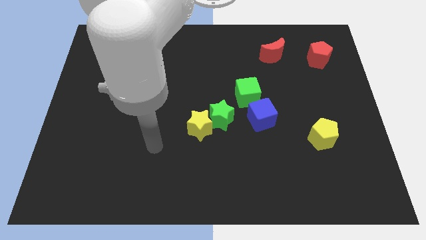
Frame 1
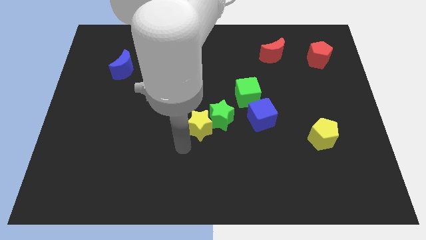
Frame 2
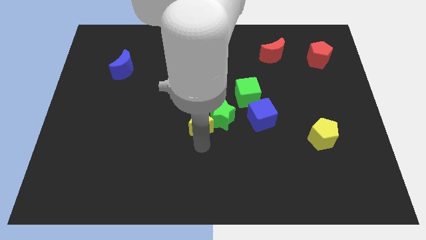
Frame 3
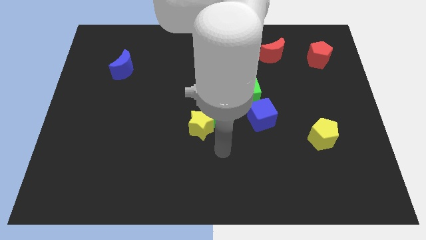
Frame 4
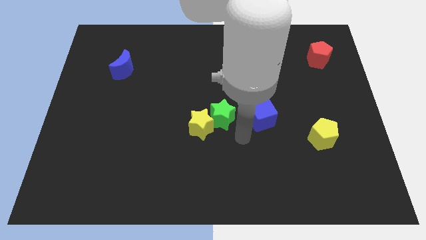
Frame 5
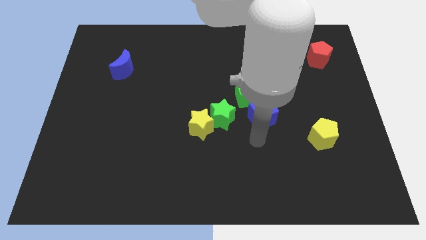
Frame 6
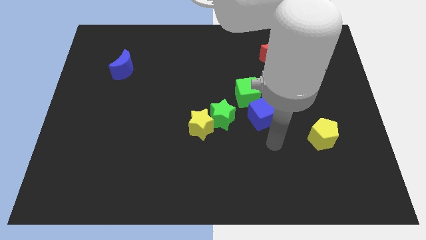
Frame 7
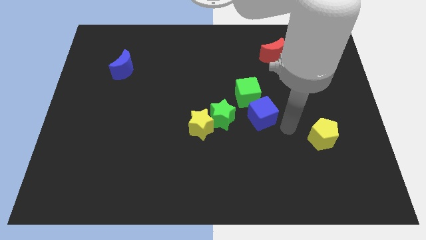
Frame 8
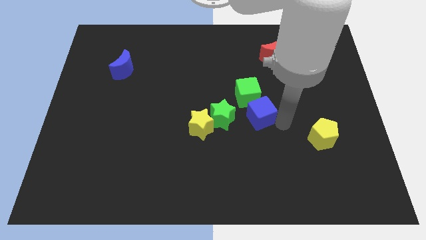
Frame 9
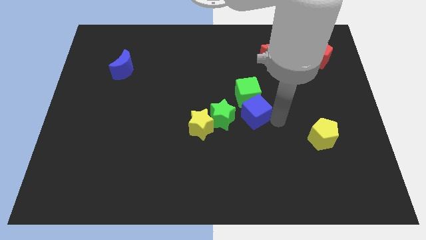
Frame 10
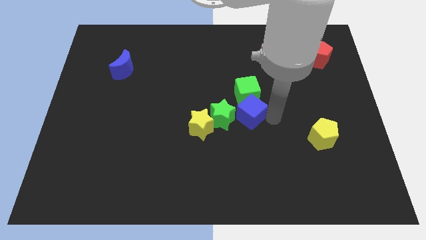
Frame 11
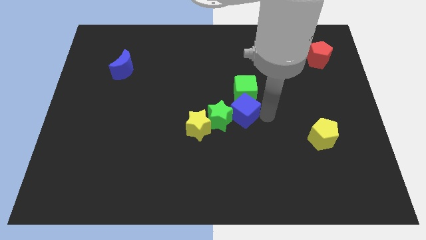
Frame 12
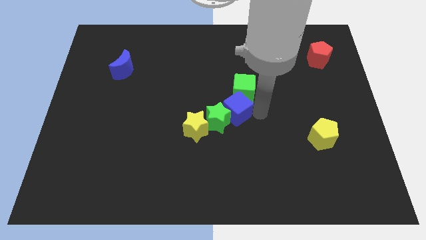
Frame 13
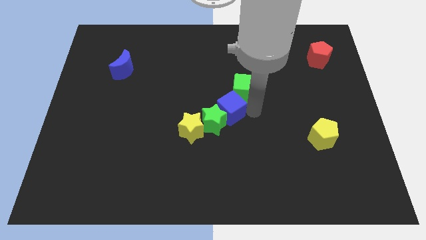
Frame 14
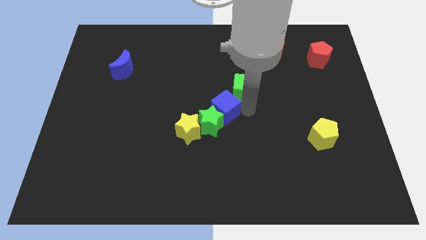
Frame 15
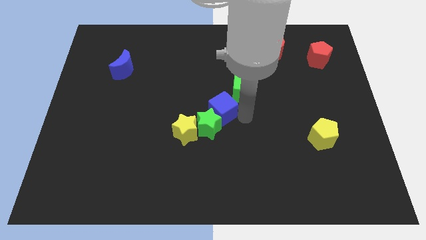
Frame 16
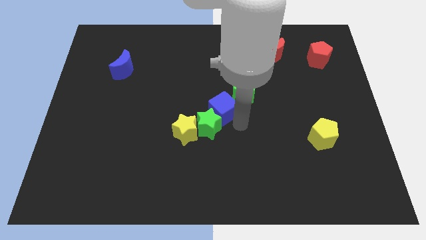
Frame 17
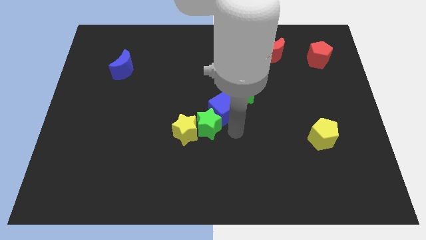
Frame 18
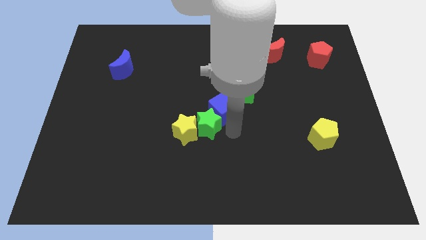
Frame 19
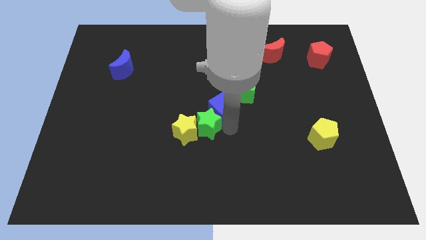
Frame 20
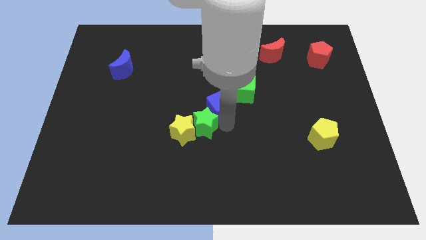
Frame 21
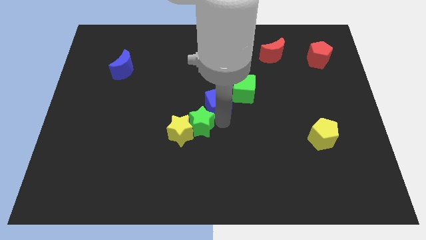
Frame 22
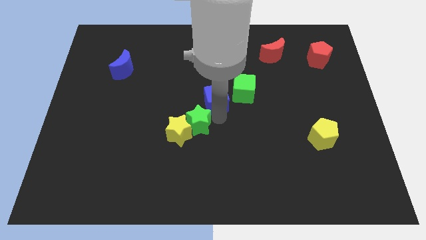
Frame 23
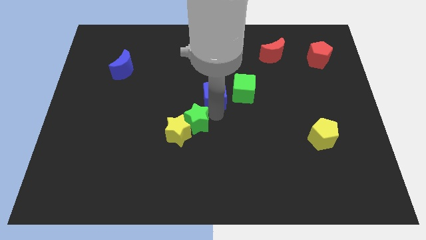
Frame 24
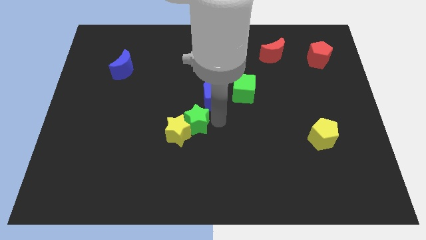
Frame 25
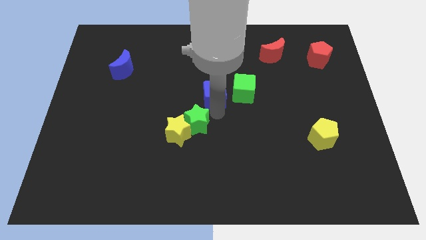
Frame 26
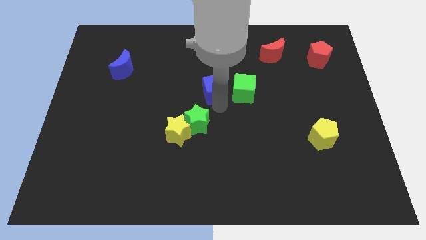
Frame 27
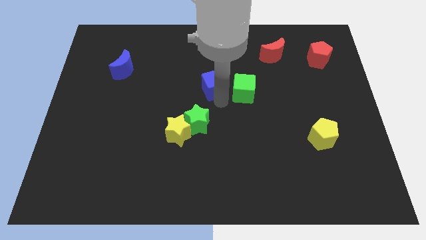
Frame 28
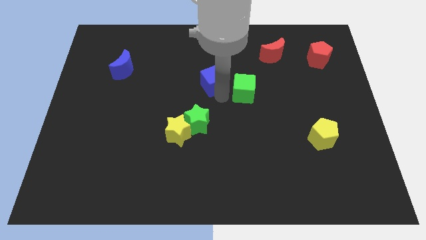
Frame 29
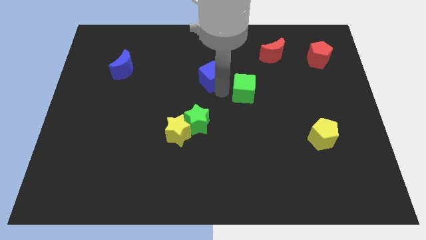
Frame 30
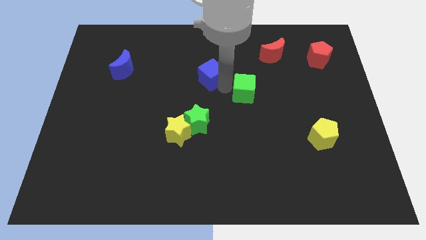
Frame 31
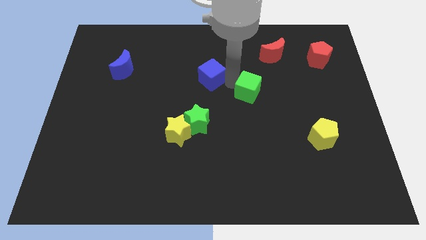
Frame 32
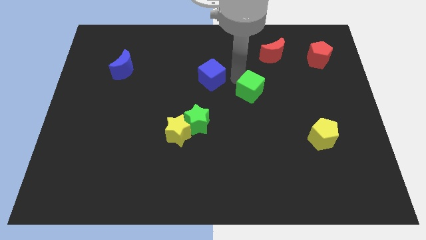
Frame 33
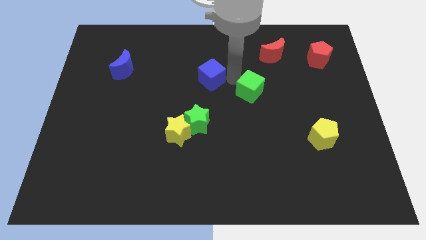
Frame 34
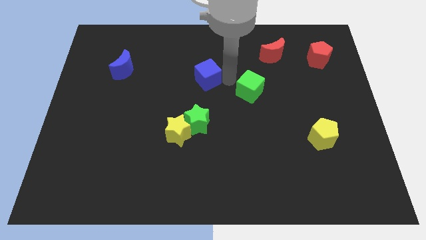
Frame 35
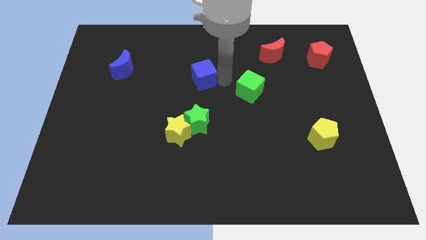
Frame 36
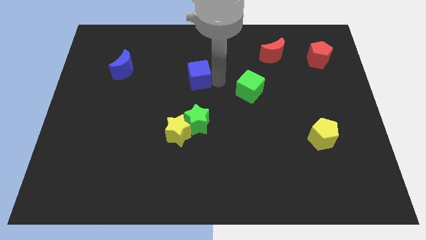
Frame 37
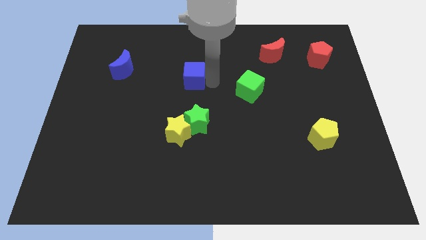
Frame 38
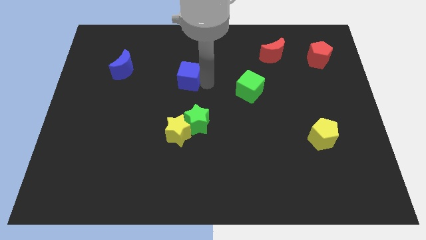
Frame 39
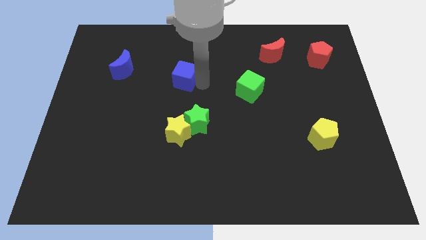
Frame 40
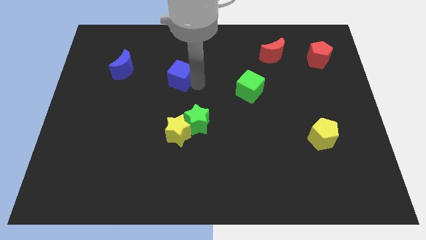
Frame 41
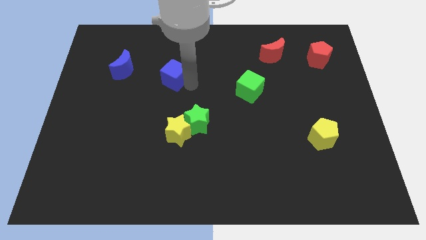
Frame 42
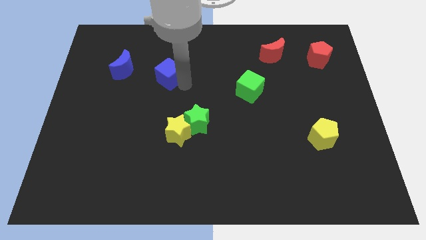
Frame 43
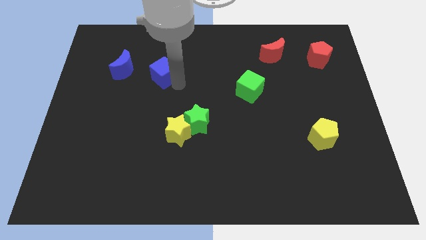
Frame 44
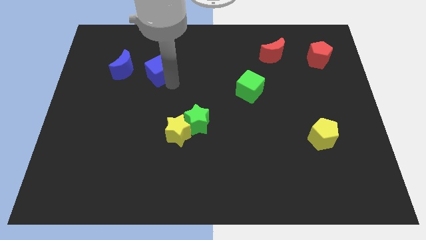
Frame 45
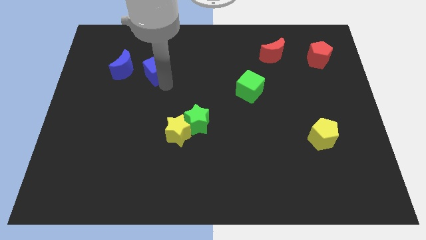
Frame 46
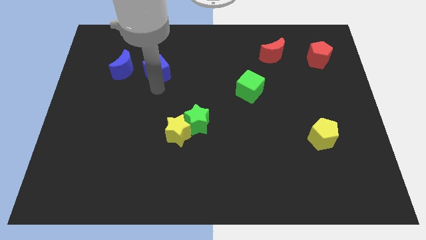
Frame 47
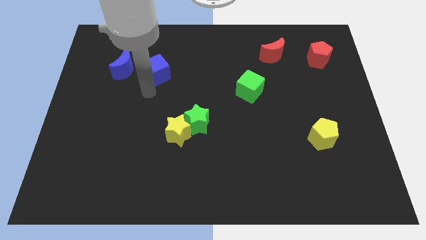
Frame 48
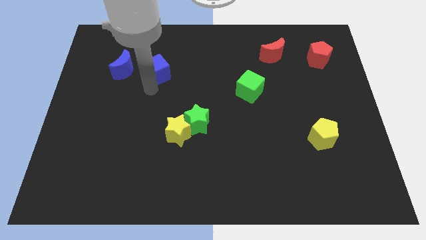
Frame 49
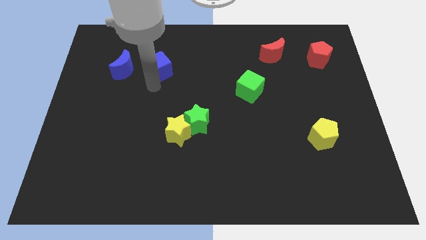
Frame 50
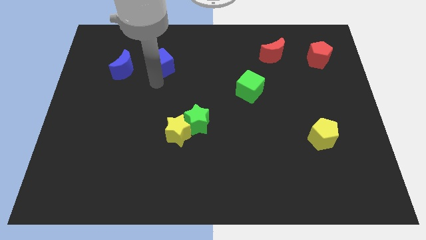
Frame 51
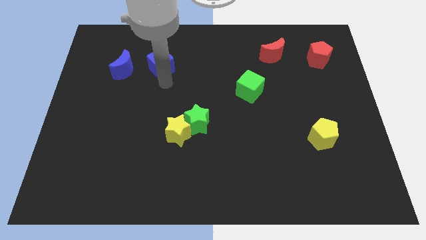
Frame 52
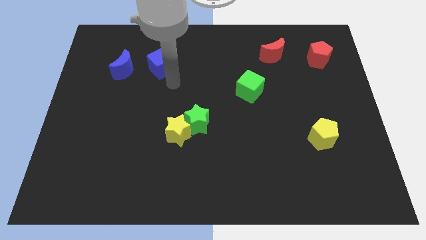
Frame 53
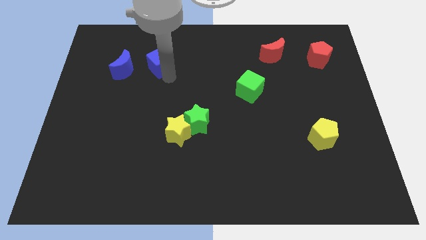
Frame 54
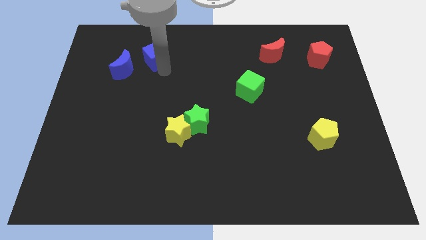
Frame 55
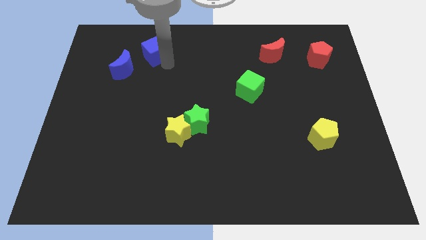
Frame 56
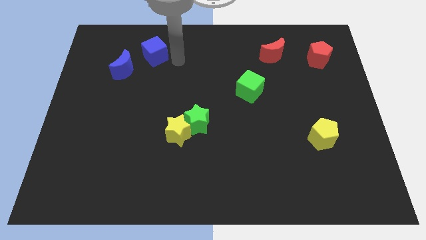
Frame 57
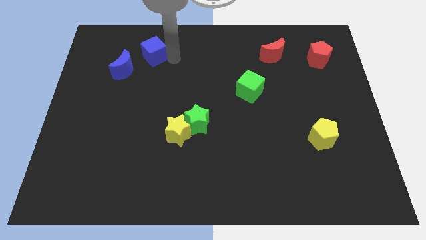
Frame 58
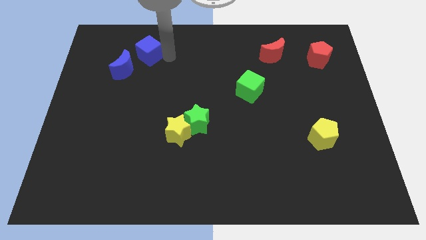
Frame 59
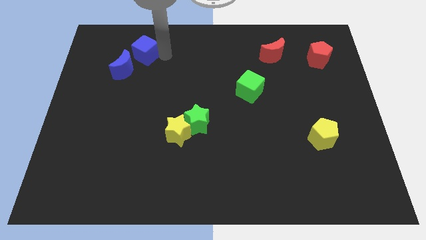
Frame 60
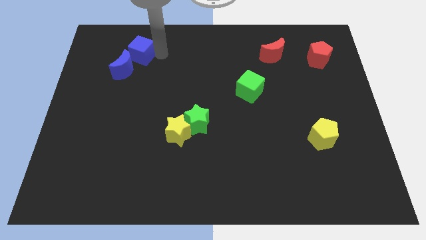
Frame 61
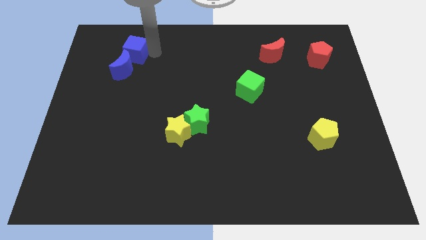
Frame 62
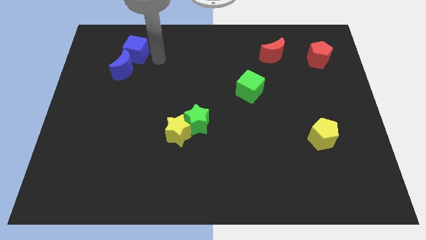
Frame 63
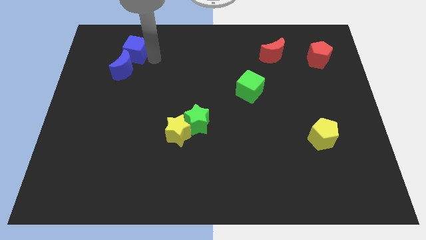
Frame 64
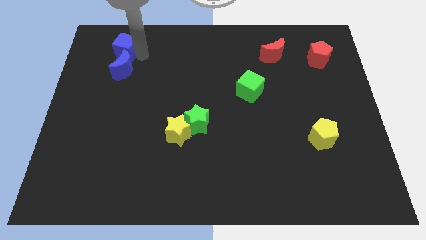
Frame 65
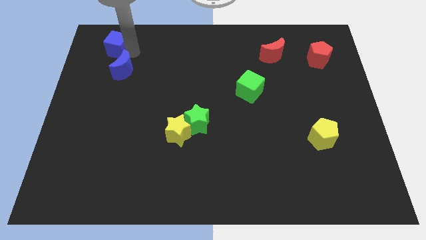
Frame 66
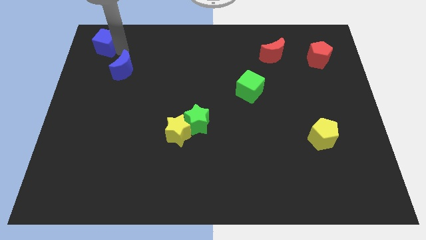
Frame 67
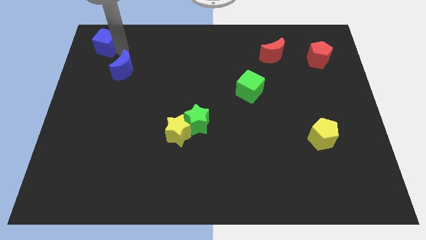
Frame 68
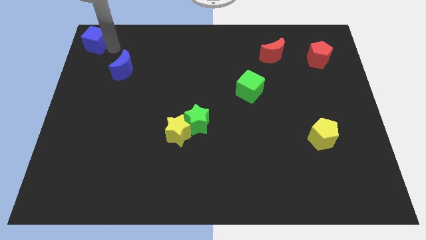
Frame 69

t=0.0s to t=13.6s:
move the blue cube to the top left
